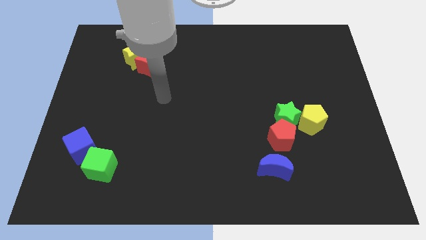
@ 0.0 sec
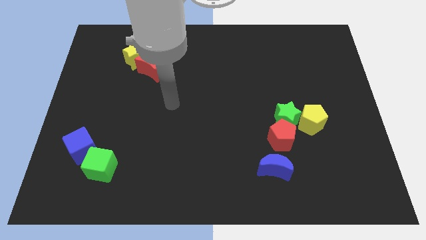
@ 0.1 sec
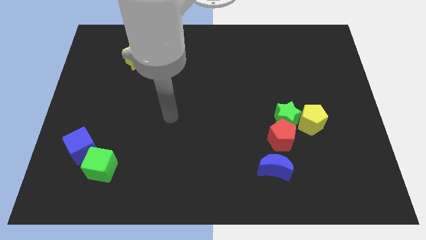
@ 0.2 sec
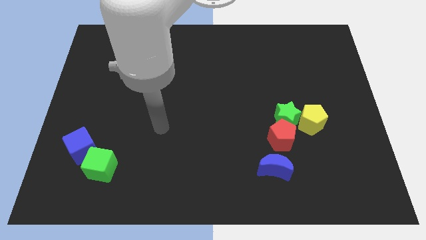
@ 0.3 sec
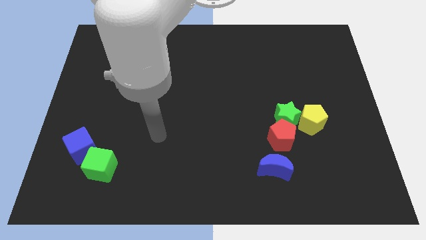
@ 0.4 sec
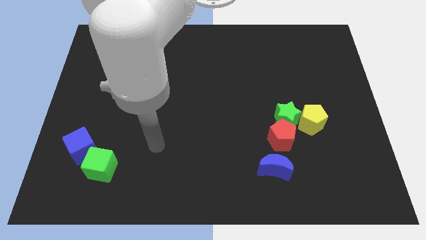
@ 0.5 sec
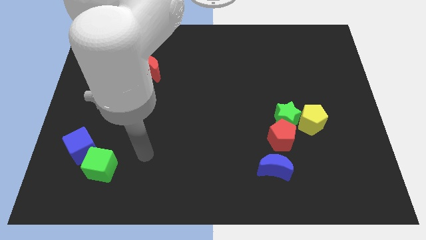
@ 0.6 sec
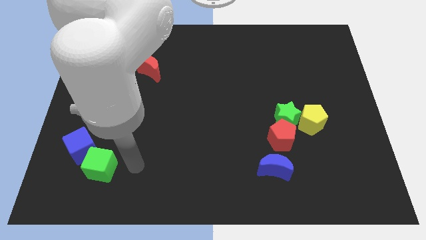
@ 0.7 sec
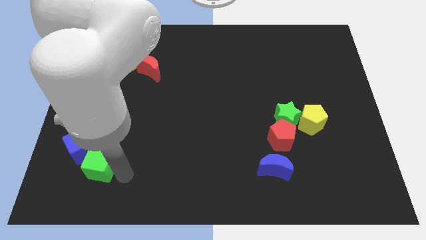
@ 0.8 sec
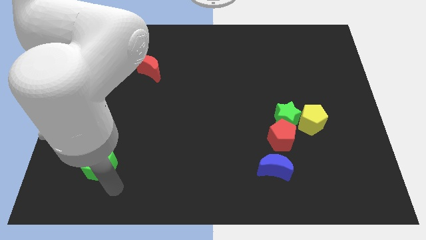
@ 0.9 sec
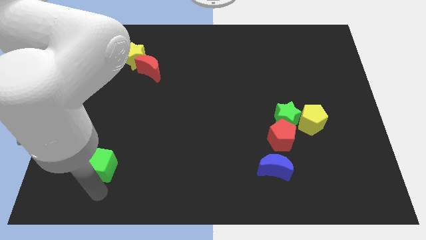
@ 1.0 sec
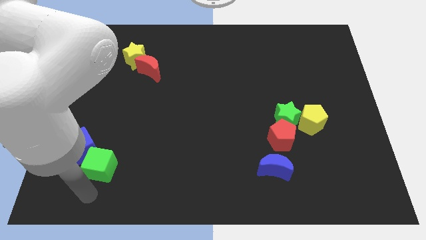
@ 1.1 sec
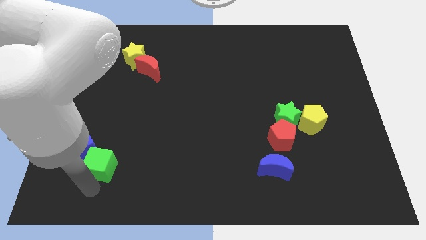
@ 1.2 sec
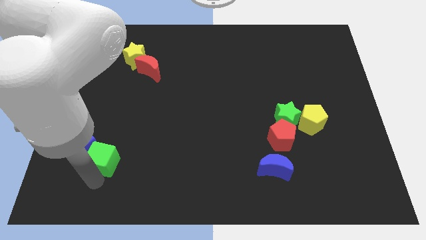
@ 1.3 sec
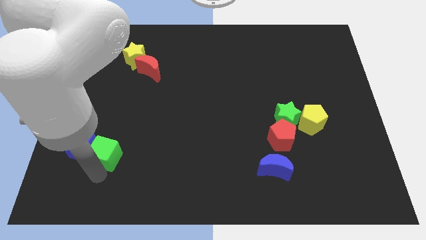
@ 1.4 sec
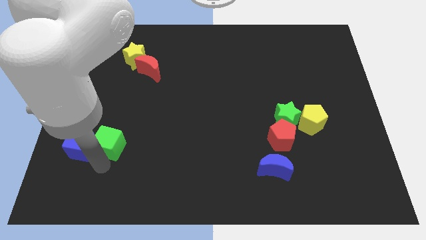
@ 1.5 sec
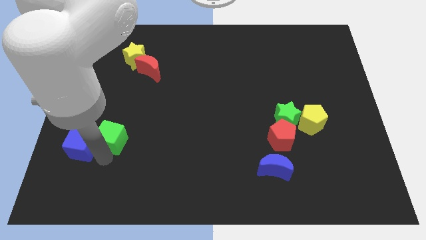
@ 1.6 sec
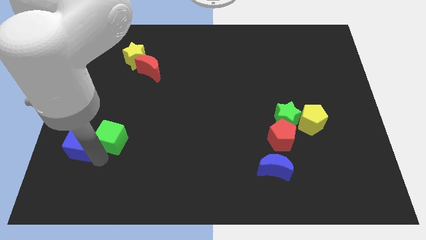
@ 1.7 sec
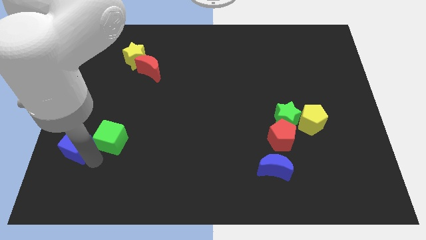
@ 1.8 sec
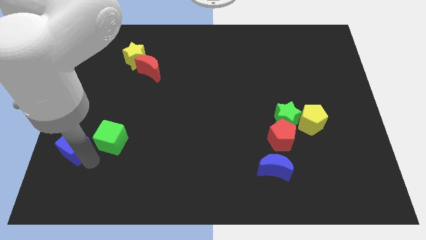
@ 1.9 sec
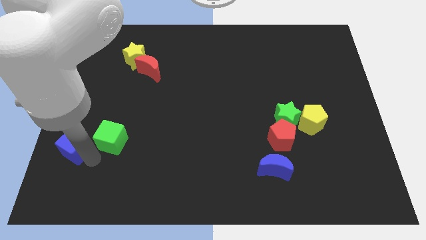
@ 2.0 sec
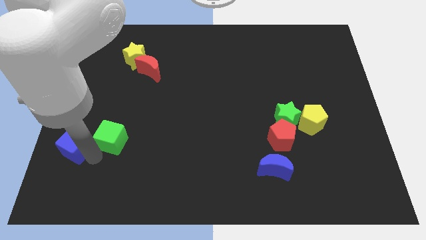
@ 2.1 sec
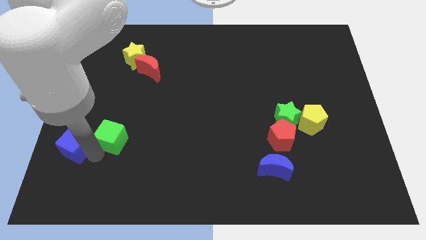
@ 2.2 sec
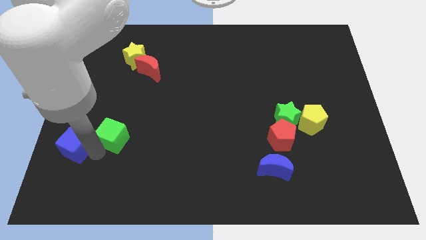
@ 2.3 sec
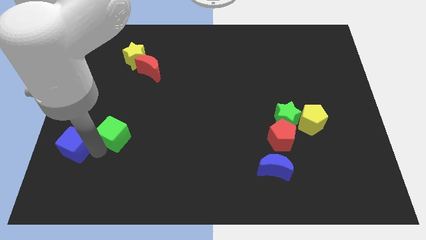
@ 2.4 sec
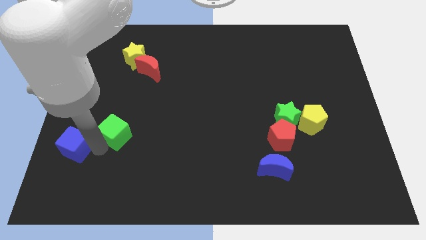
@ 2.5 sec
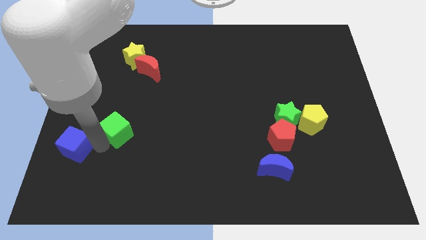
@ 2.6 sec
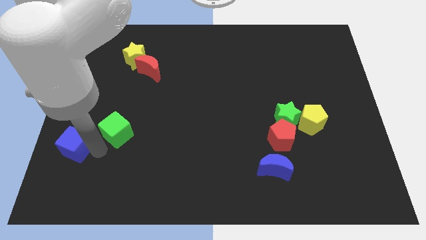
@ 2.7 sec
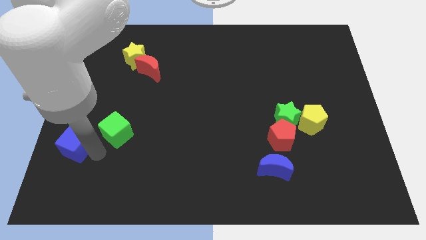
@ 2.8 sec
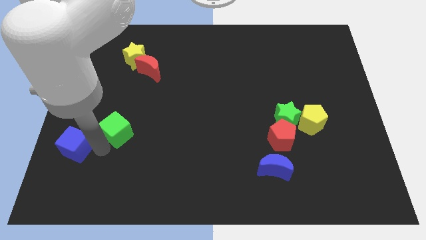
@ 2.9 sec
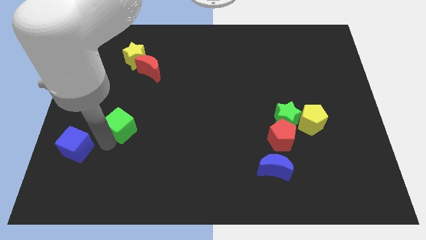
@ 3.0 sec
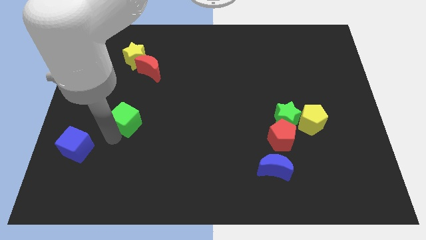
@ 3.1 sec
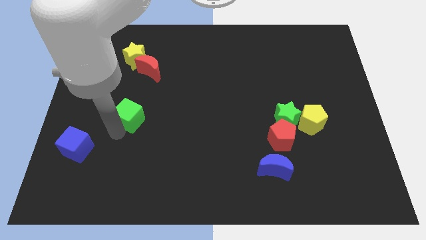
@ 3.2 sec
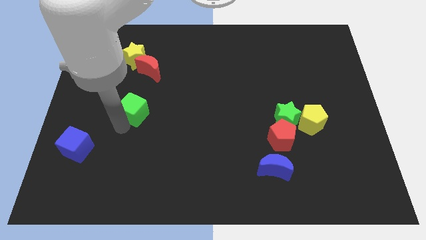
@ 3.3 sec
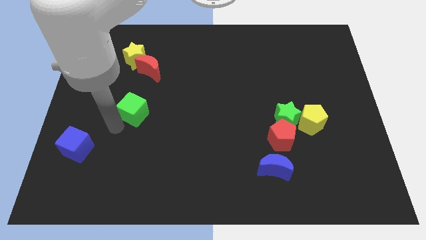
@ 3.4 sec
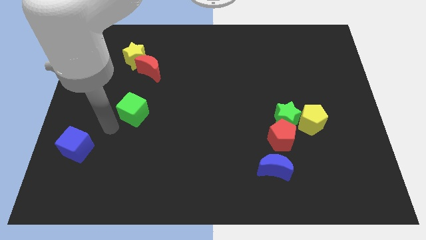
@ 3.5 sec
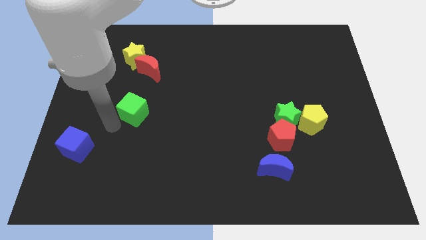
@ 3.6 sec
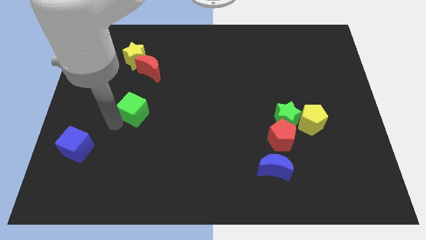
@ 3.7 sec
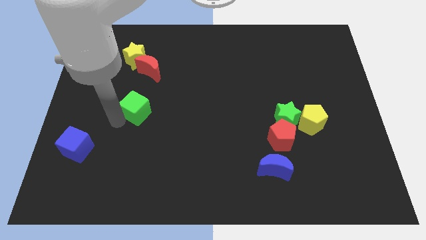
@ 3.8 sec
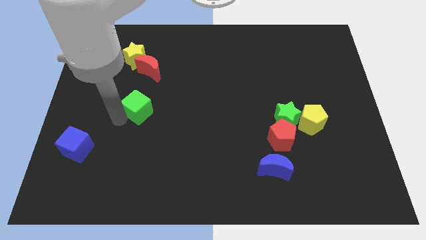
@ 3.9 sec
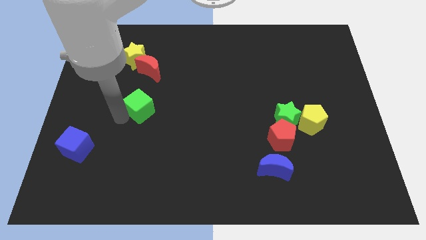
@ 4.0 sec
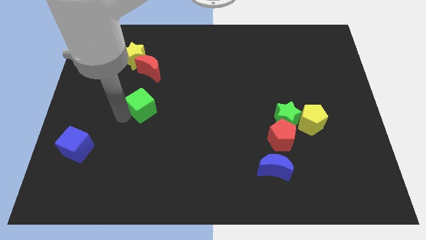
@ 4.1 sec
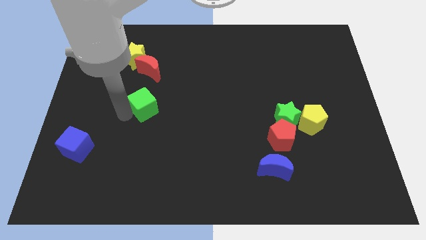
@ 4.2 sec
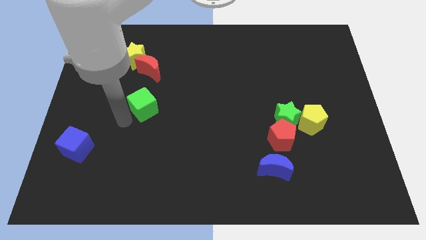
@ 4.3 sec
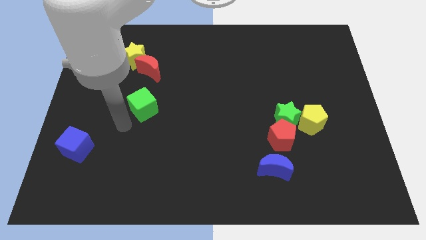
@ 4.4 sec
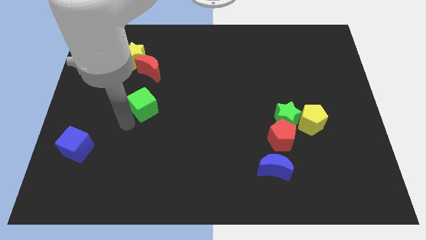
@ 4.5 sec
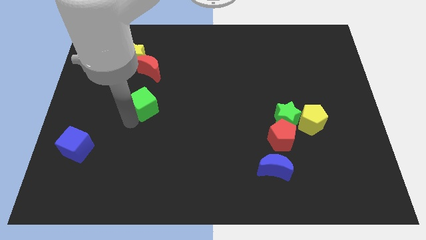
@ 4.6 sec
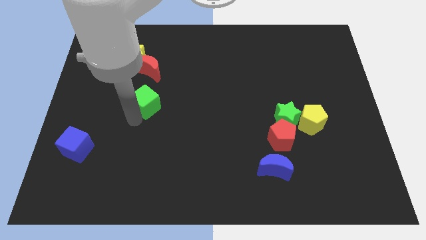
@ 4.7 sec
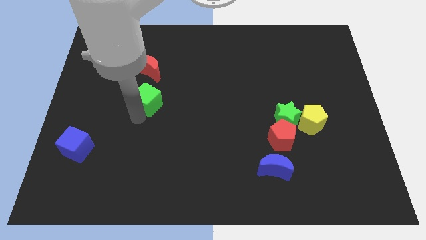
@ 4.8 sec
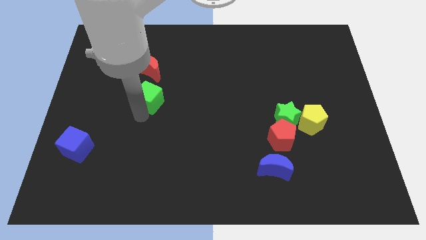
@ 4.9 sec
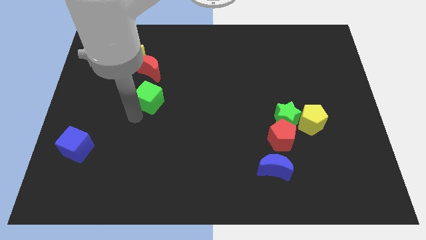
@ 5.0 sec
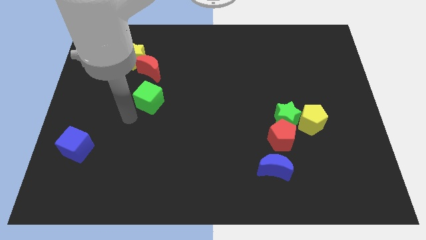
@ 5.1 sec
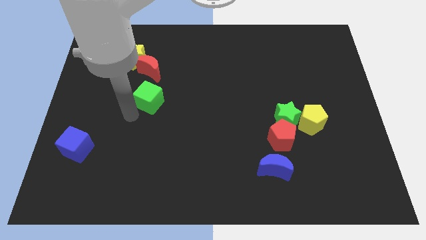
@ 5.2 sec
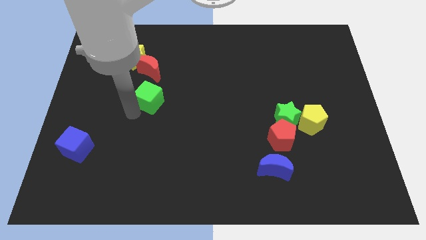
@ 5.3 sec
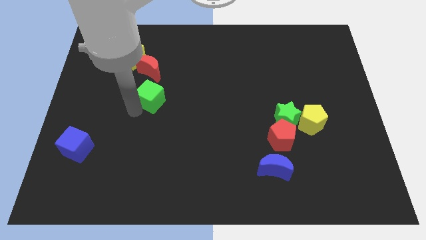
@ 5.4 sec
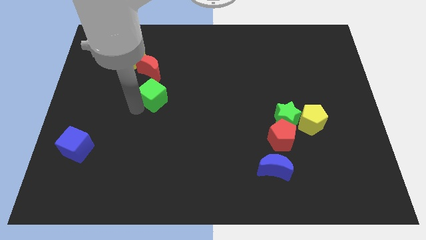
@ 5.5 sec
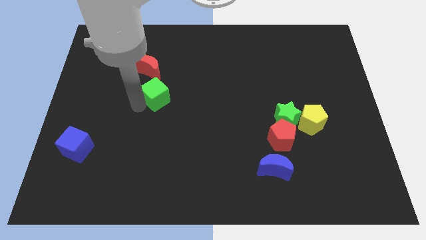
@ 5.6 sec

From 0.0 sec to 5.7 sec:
slide the green cube to the bottom right of the red moon

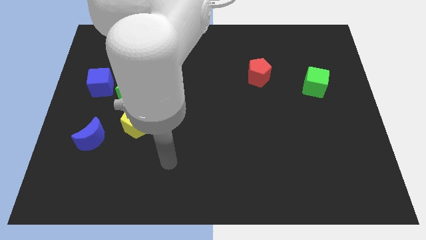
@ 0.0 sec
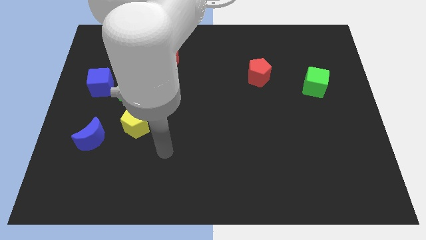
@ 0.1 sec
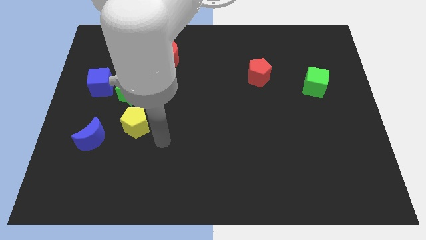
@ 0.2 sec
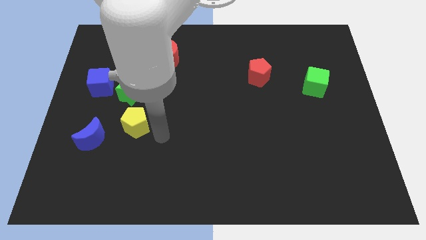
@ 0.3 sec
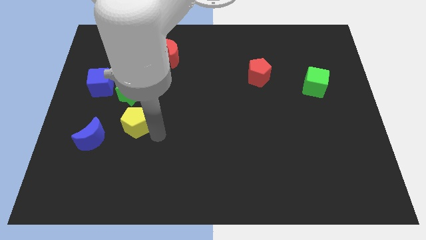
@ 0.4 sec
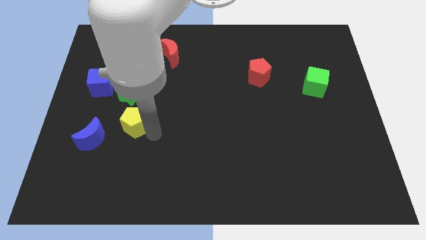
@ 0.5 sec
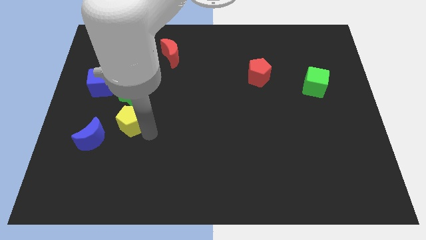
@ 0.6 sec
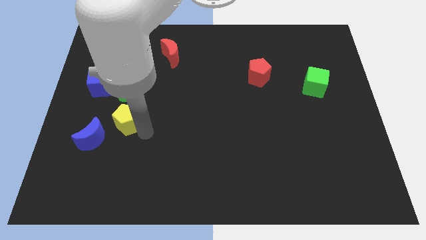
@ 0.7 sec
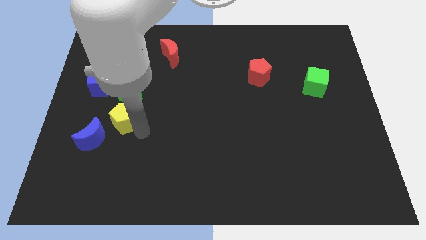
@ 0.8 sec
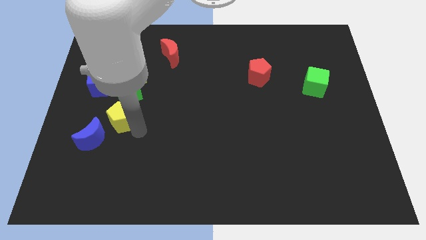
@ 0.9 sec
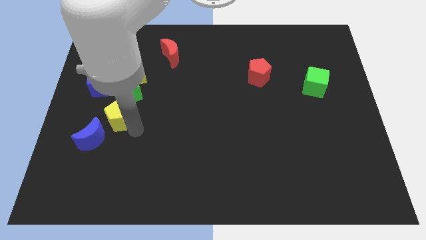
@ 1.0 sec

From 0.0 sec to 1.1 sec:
put the yellow pentagon diagonally down and to the left of the green star
